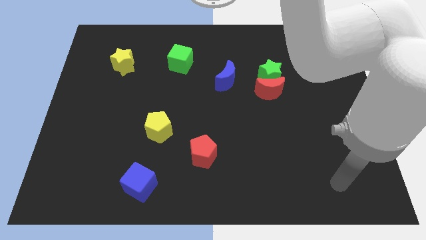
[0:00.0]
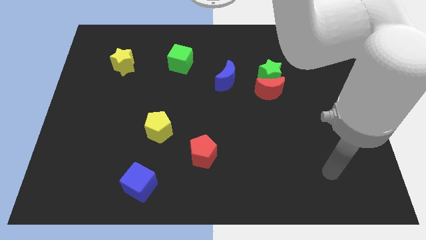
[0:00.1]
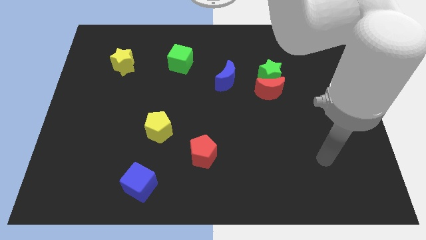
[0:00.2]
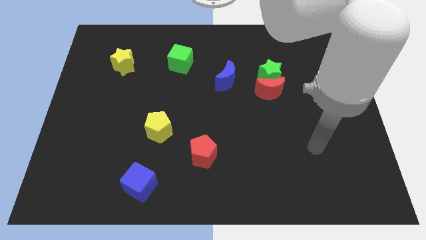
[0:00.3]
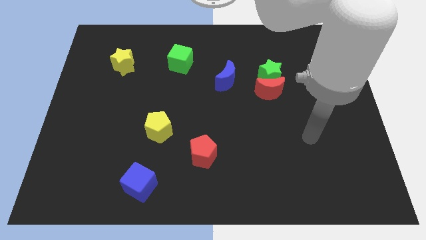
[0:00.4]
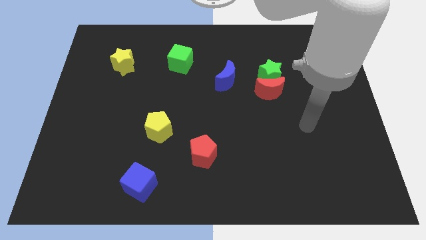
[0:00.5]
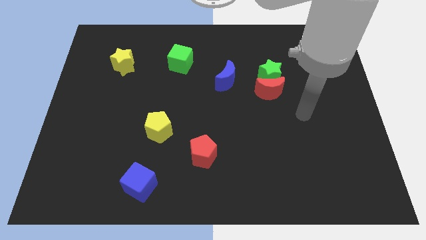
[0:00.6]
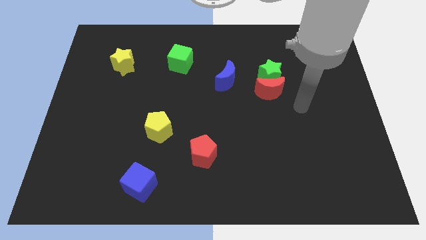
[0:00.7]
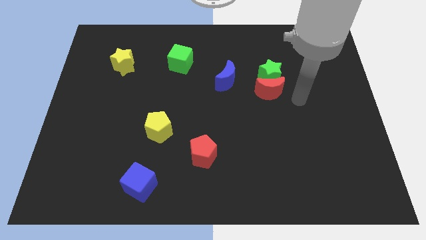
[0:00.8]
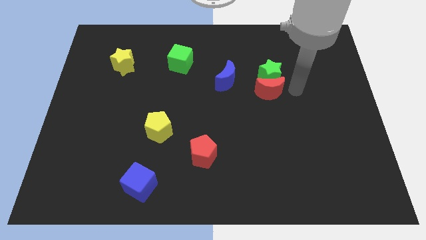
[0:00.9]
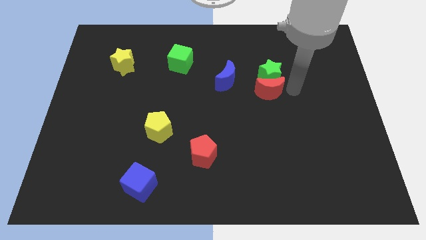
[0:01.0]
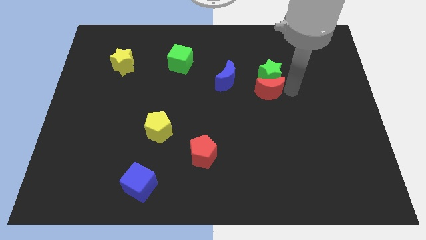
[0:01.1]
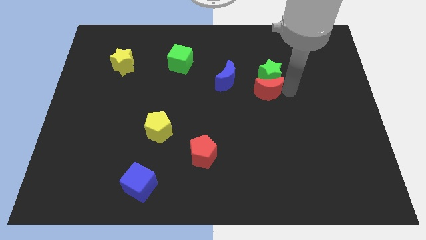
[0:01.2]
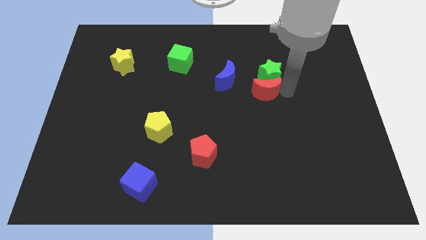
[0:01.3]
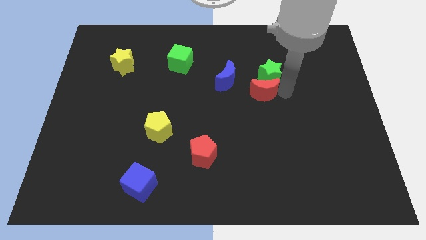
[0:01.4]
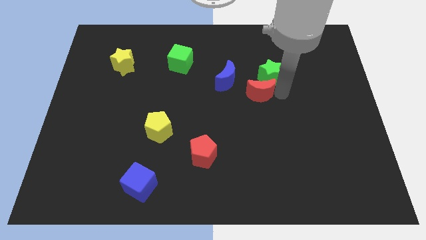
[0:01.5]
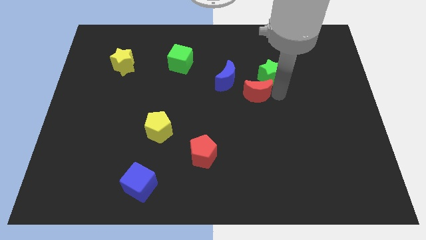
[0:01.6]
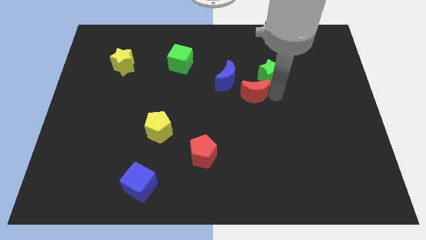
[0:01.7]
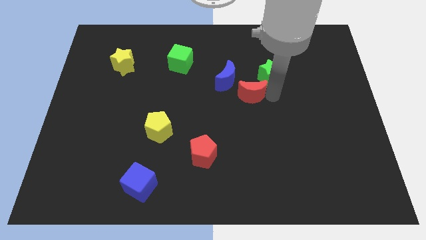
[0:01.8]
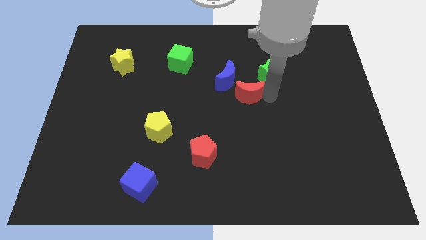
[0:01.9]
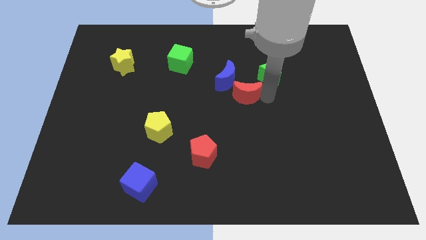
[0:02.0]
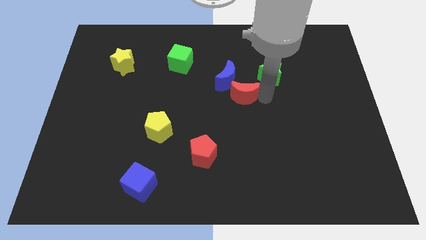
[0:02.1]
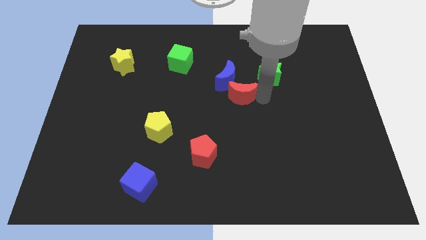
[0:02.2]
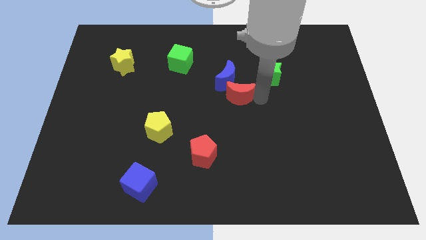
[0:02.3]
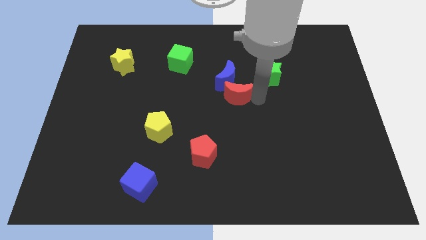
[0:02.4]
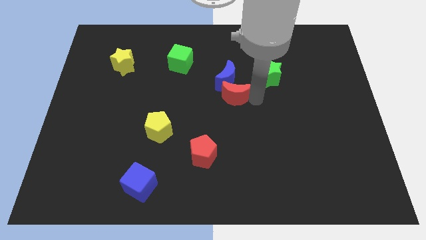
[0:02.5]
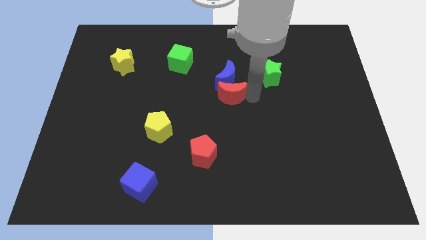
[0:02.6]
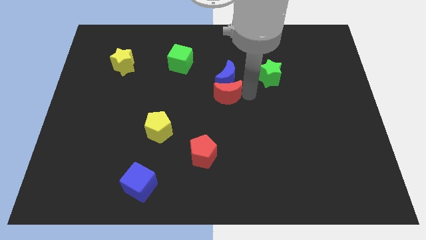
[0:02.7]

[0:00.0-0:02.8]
push the red moon a little downwards and left diagonally

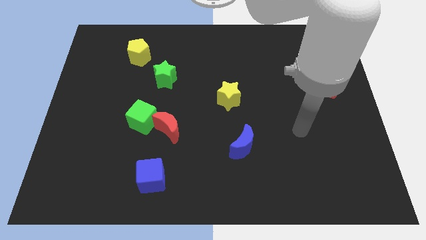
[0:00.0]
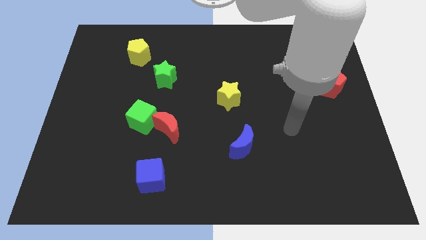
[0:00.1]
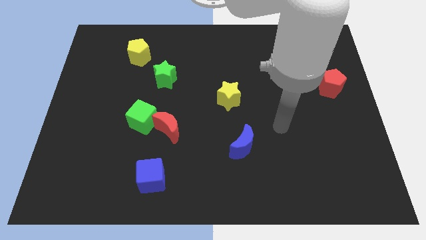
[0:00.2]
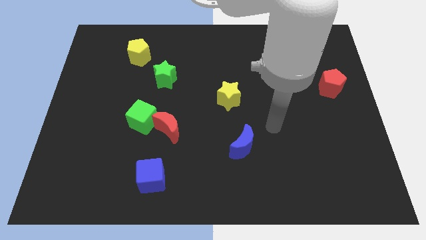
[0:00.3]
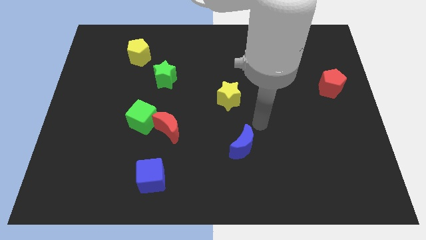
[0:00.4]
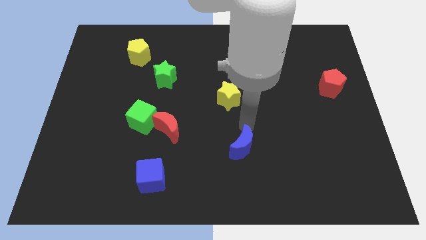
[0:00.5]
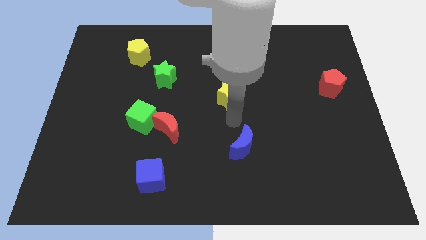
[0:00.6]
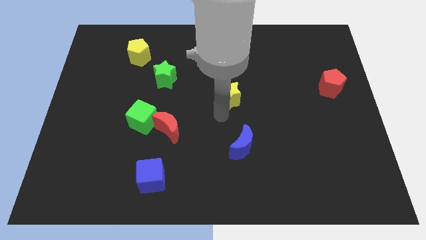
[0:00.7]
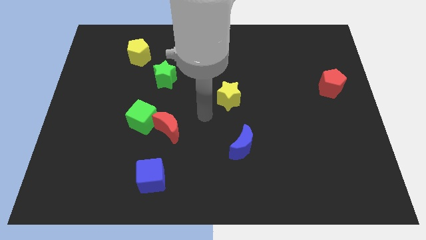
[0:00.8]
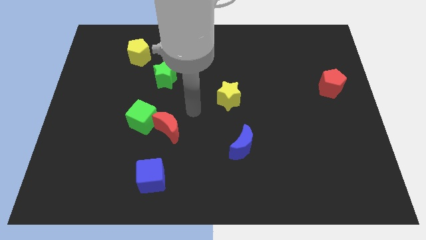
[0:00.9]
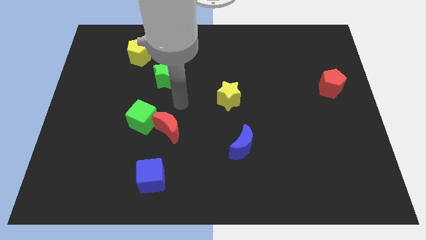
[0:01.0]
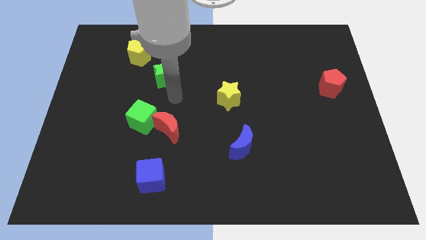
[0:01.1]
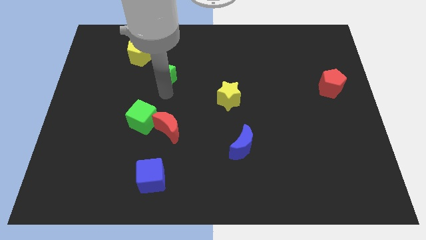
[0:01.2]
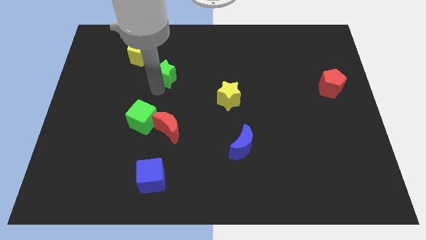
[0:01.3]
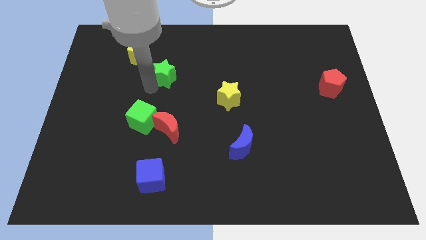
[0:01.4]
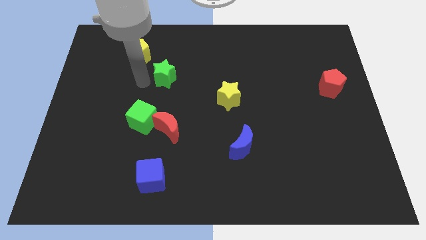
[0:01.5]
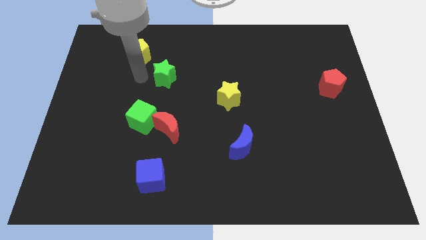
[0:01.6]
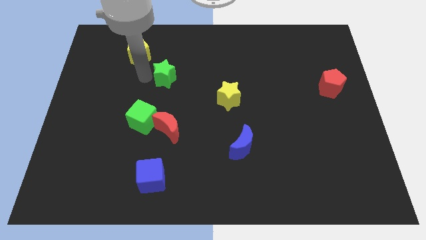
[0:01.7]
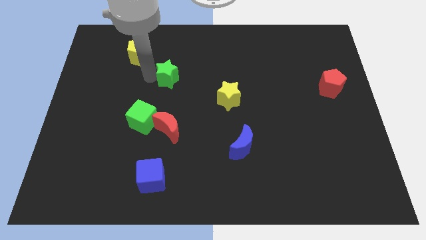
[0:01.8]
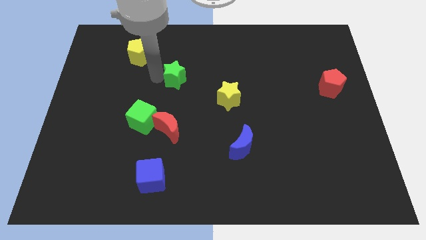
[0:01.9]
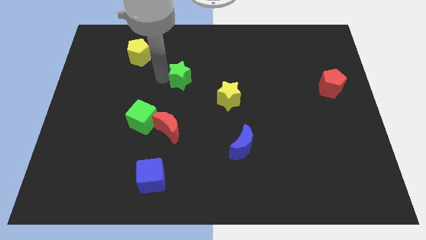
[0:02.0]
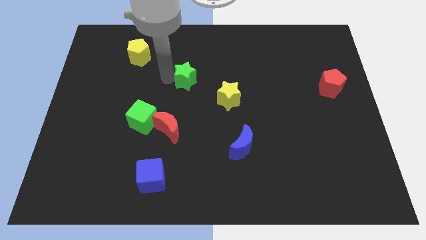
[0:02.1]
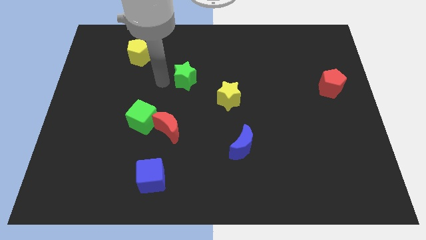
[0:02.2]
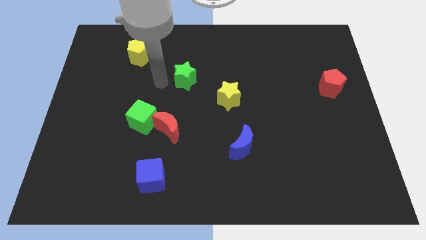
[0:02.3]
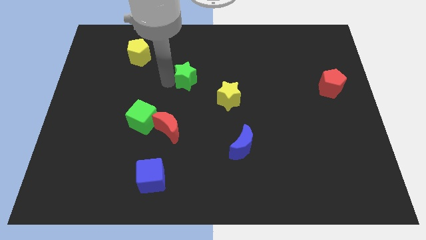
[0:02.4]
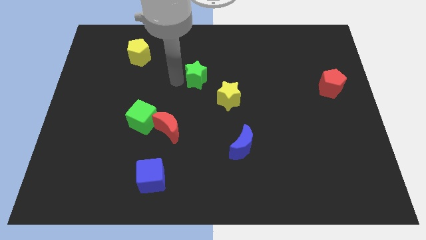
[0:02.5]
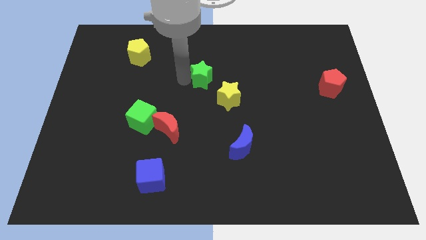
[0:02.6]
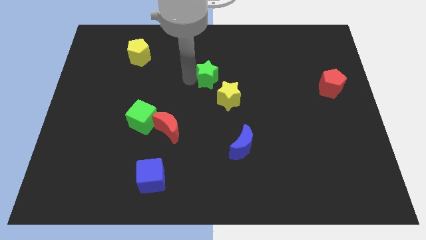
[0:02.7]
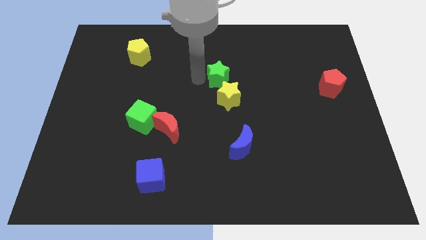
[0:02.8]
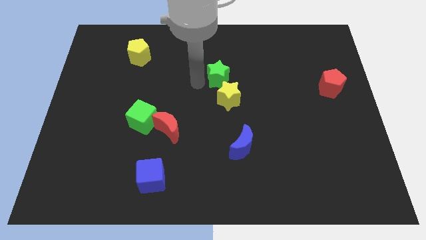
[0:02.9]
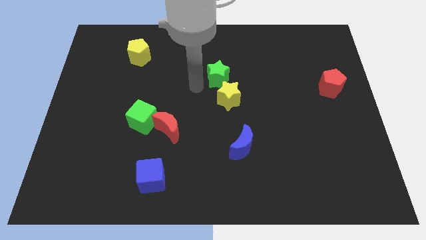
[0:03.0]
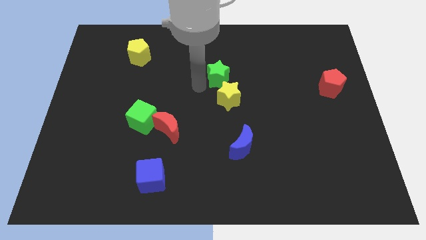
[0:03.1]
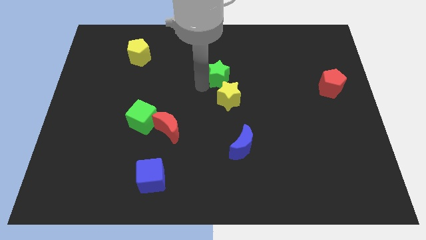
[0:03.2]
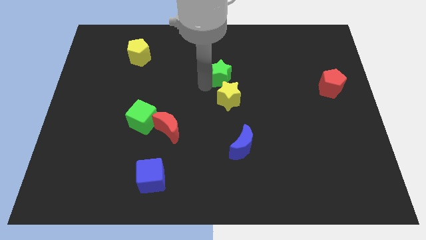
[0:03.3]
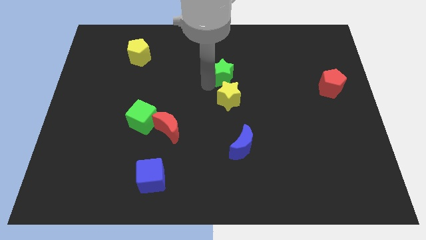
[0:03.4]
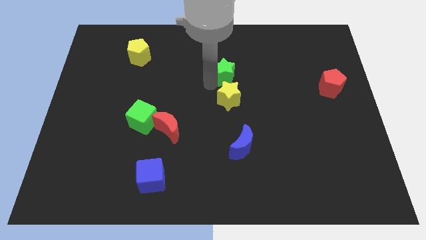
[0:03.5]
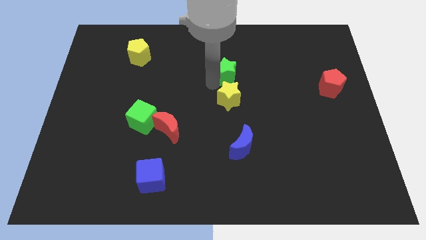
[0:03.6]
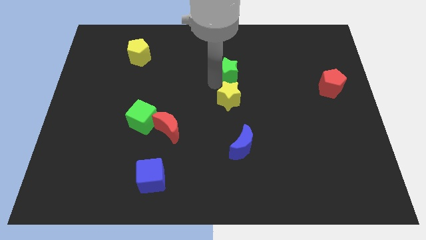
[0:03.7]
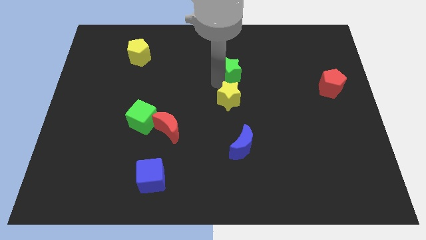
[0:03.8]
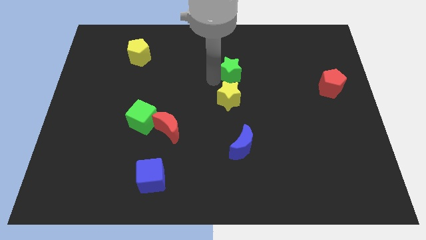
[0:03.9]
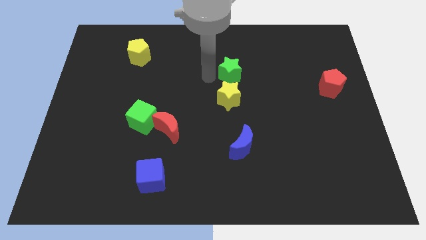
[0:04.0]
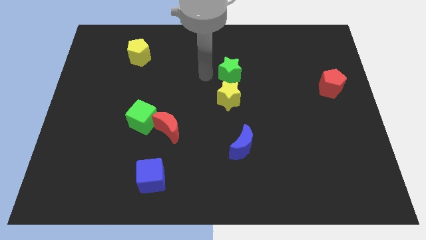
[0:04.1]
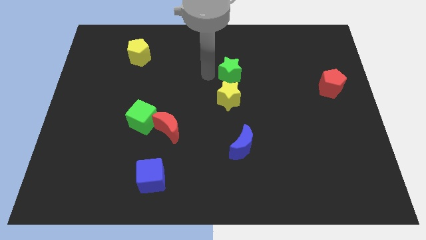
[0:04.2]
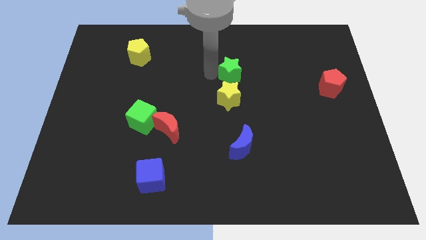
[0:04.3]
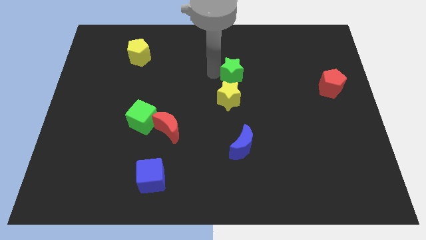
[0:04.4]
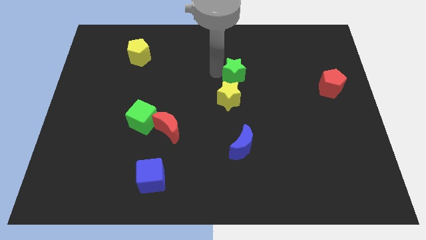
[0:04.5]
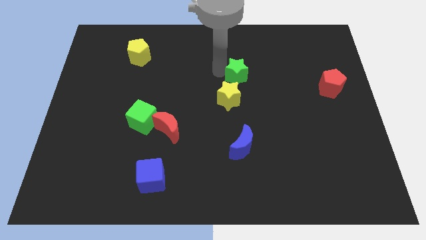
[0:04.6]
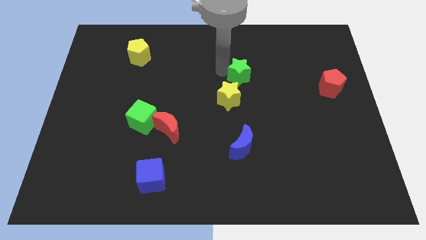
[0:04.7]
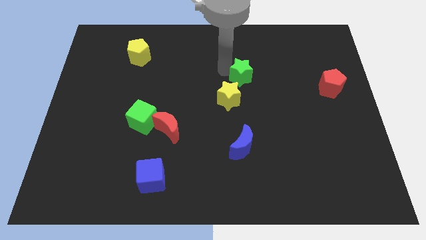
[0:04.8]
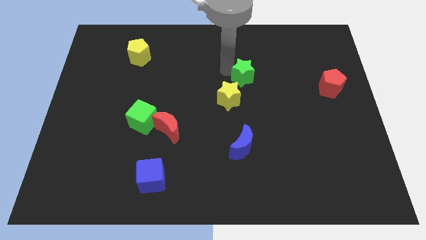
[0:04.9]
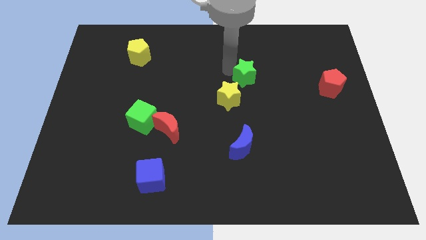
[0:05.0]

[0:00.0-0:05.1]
slide the green star right
